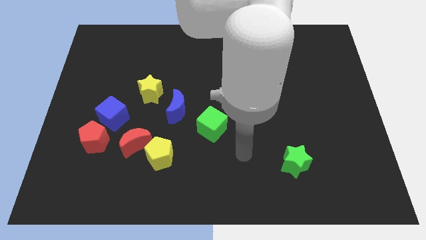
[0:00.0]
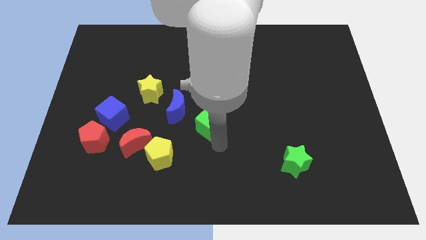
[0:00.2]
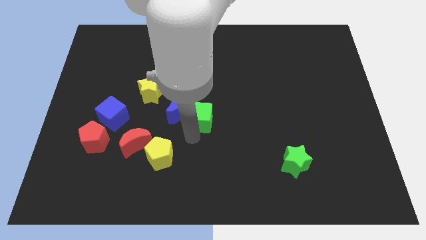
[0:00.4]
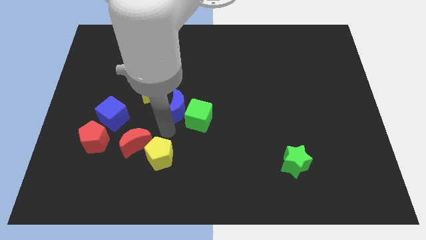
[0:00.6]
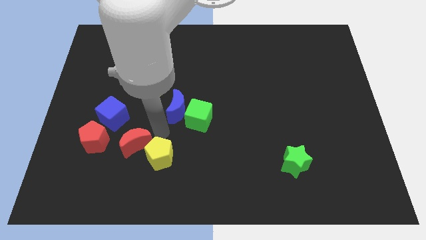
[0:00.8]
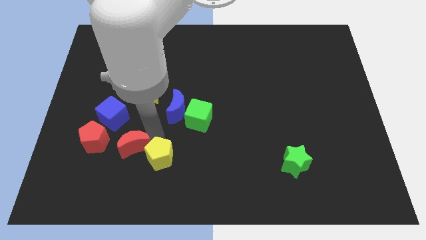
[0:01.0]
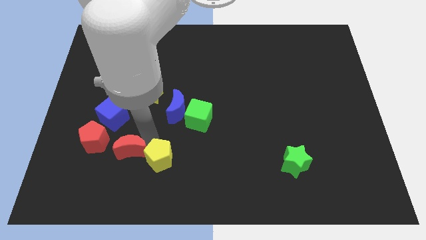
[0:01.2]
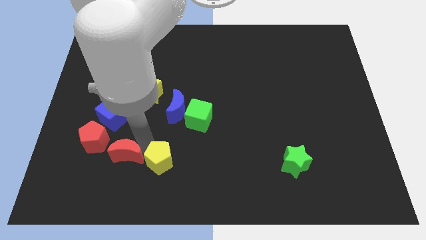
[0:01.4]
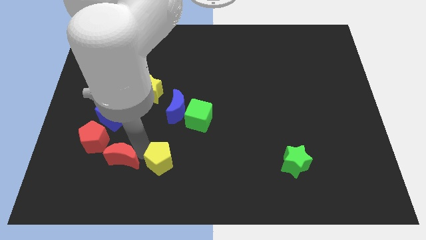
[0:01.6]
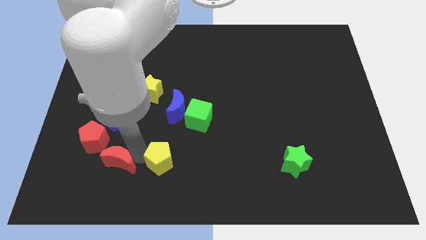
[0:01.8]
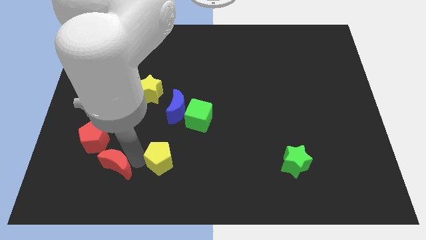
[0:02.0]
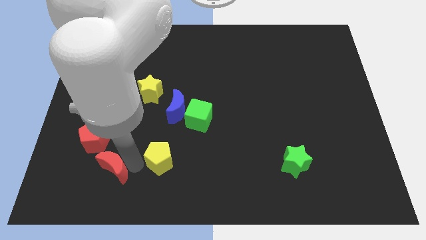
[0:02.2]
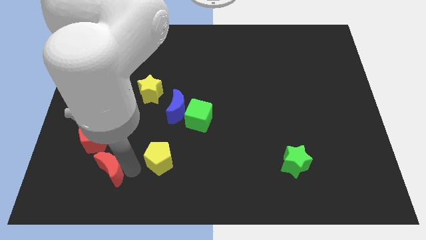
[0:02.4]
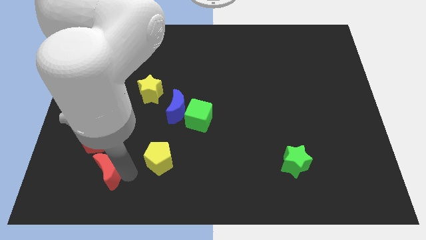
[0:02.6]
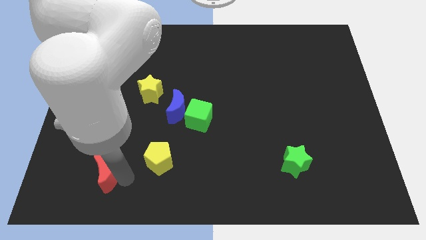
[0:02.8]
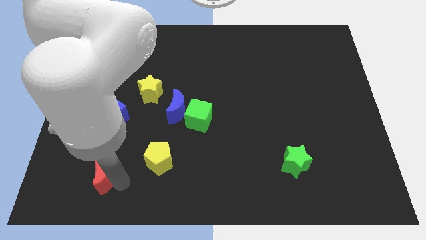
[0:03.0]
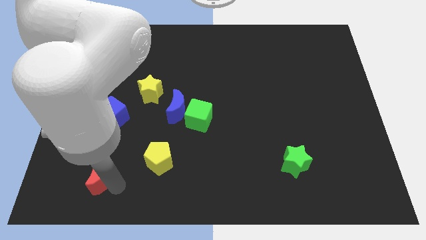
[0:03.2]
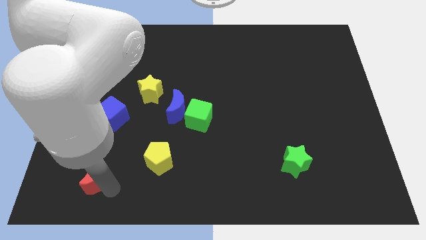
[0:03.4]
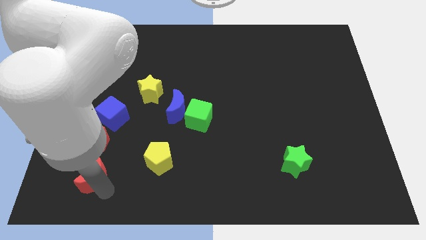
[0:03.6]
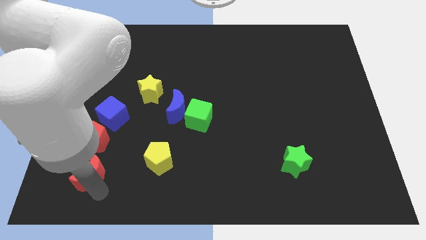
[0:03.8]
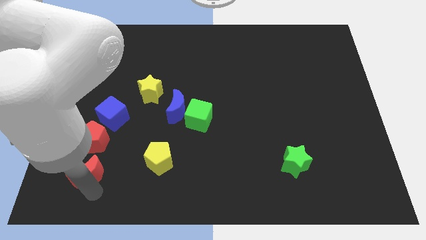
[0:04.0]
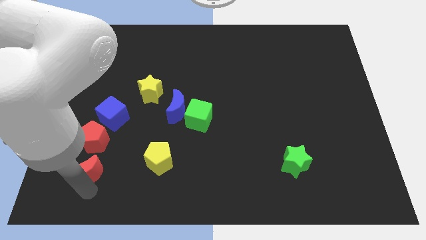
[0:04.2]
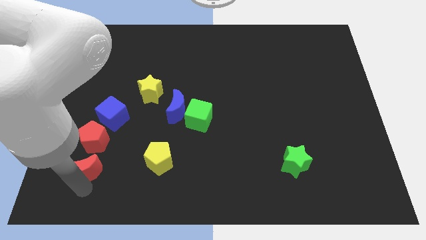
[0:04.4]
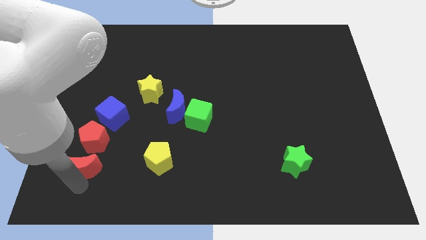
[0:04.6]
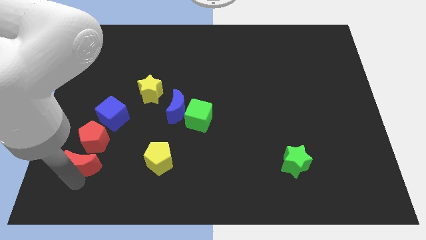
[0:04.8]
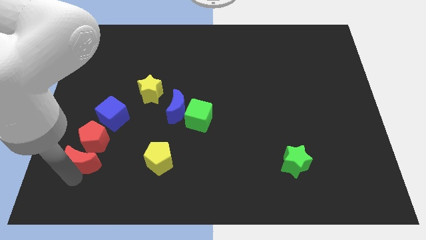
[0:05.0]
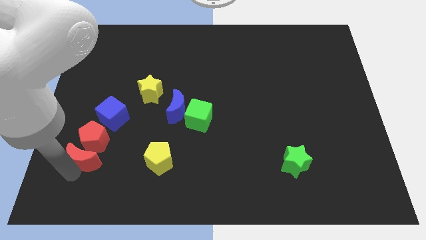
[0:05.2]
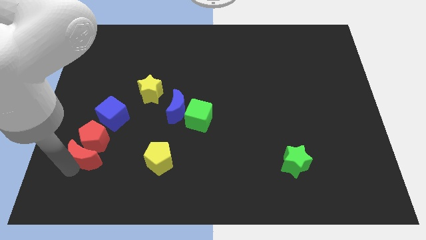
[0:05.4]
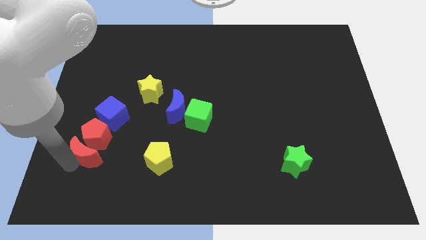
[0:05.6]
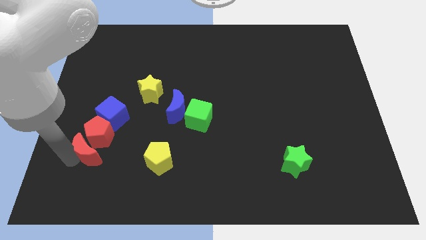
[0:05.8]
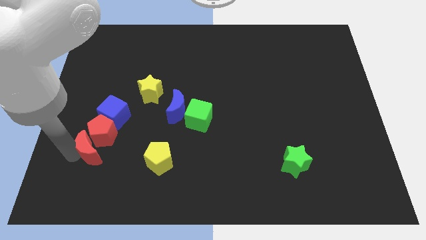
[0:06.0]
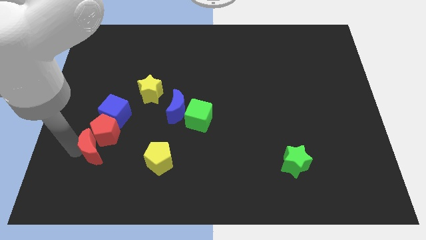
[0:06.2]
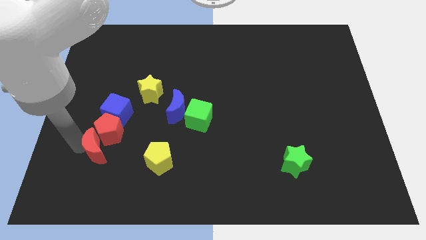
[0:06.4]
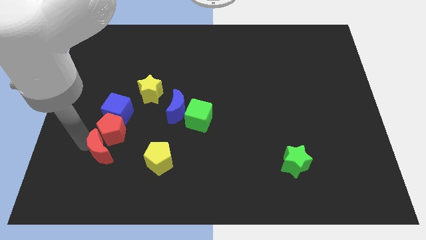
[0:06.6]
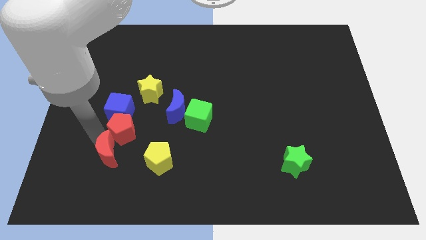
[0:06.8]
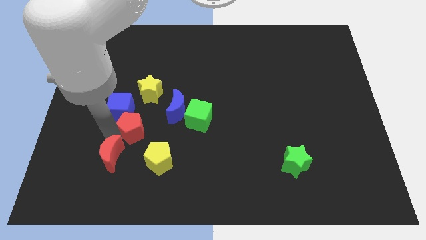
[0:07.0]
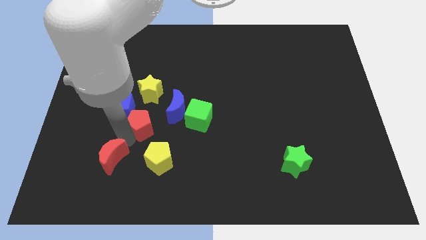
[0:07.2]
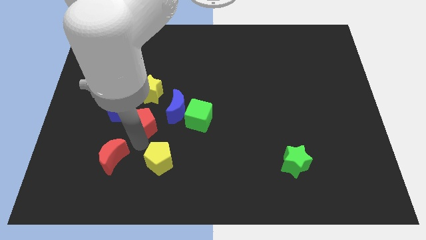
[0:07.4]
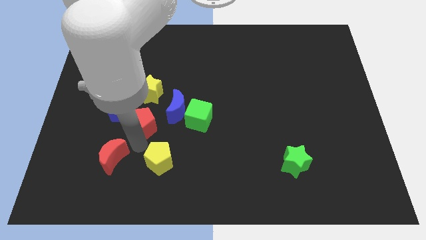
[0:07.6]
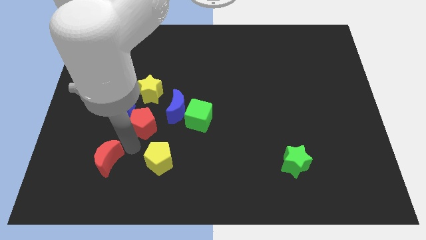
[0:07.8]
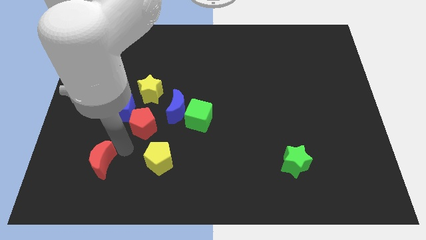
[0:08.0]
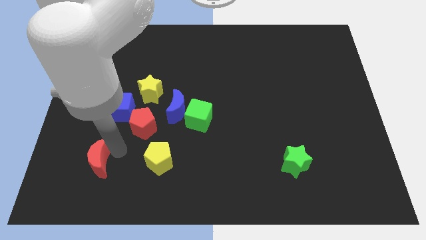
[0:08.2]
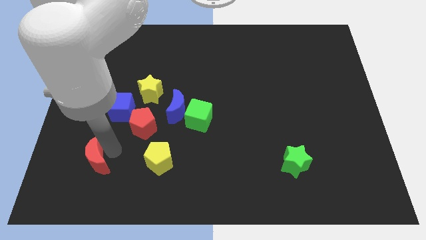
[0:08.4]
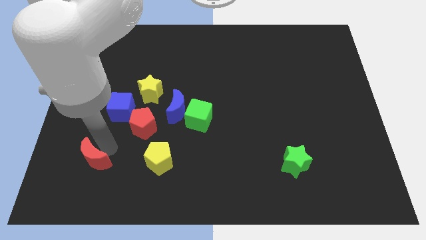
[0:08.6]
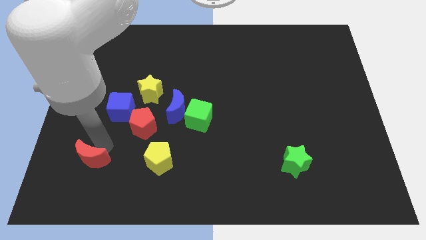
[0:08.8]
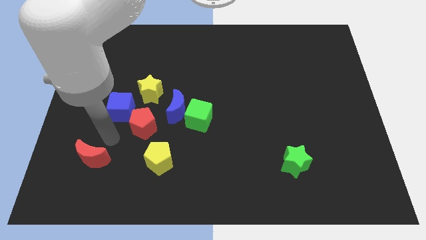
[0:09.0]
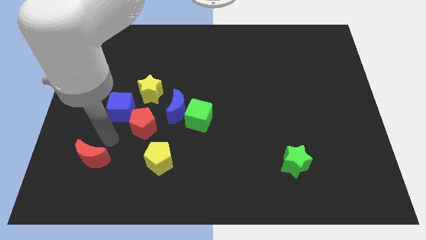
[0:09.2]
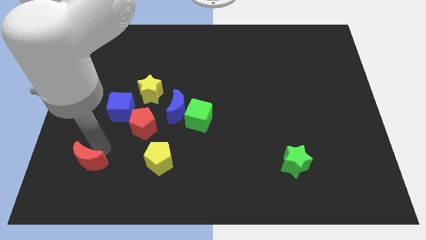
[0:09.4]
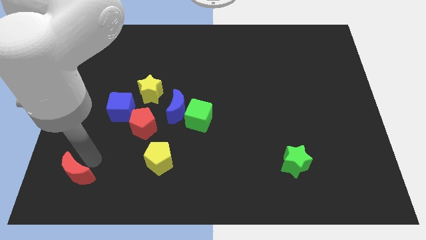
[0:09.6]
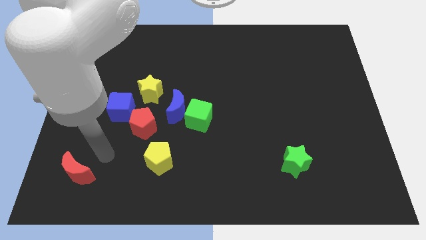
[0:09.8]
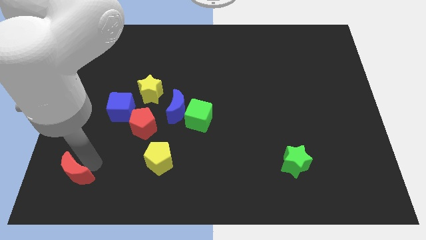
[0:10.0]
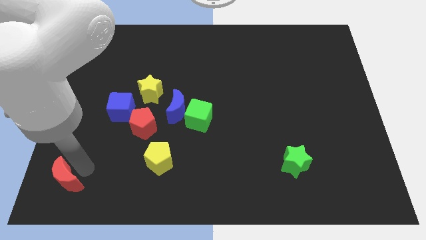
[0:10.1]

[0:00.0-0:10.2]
push the red moon to the bottom left
